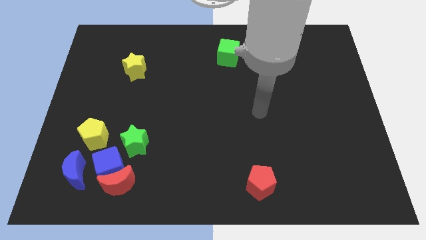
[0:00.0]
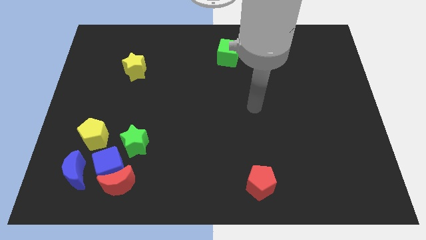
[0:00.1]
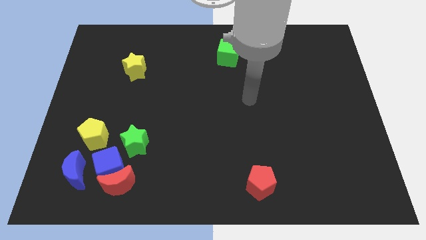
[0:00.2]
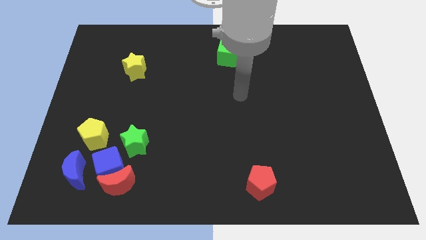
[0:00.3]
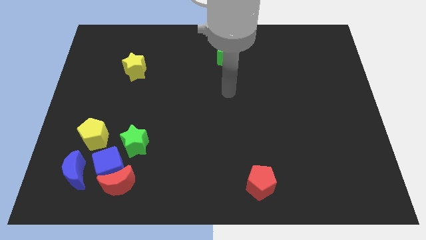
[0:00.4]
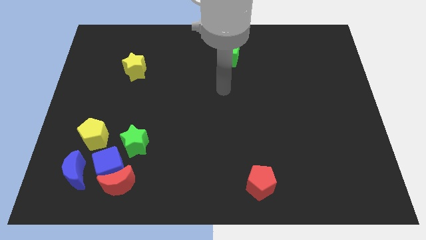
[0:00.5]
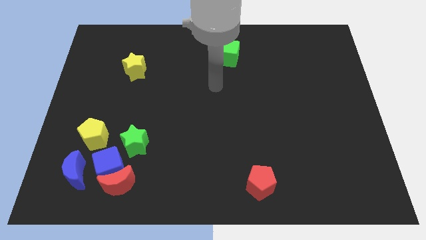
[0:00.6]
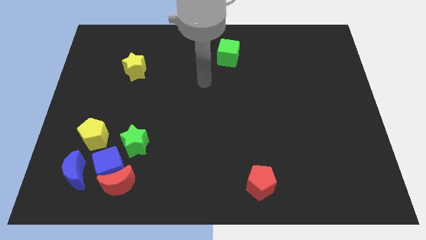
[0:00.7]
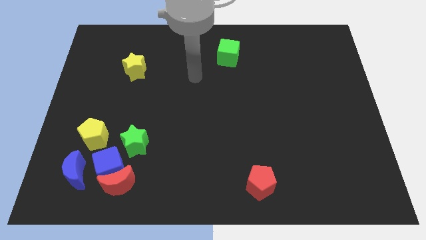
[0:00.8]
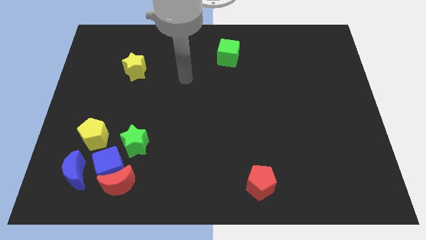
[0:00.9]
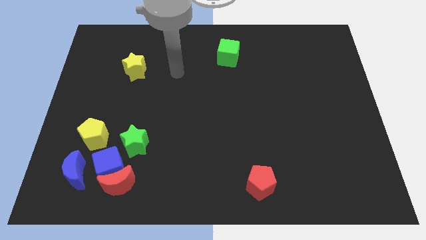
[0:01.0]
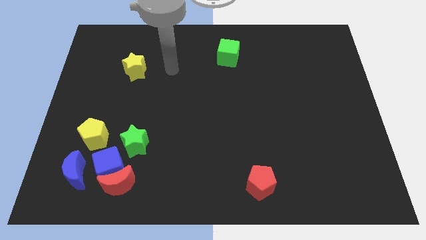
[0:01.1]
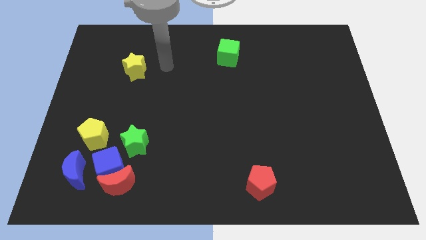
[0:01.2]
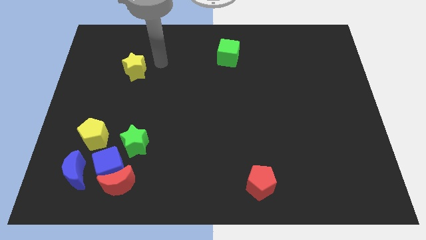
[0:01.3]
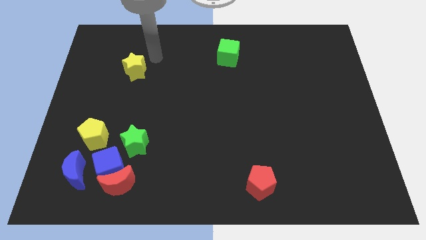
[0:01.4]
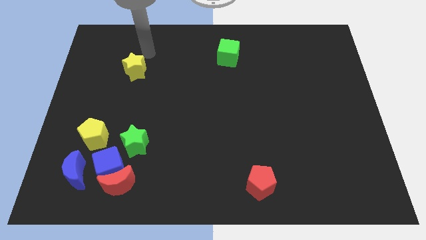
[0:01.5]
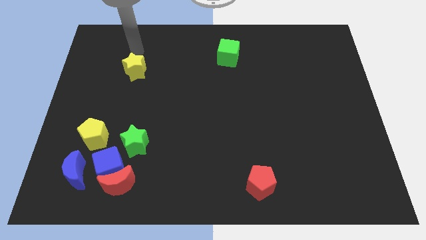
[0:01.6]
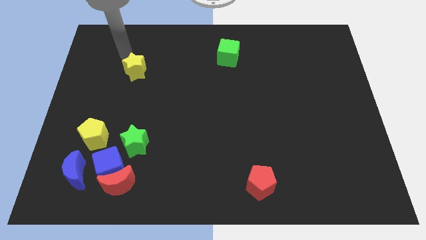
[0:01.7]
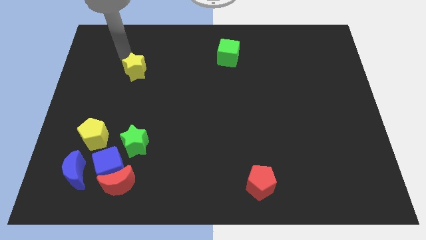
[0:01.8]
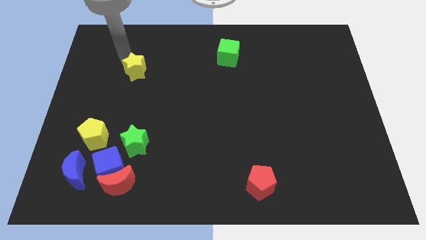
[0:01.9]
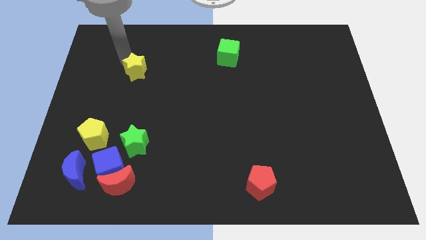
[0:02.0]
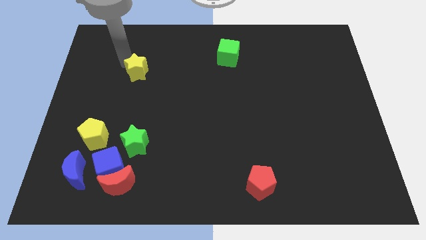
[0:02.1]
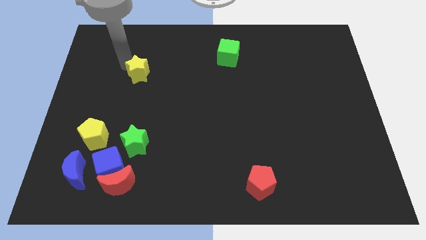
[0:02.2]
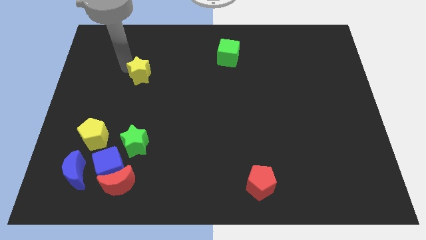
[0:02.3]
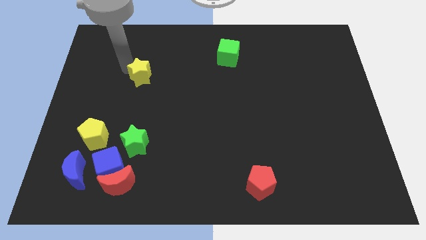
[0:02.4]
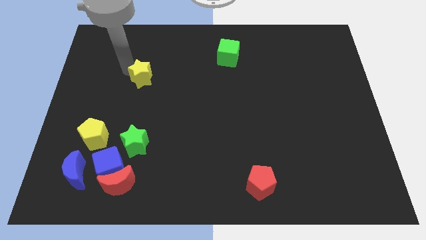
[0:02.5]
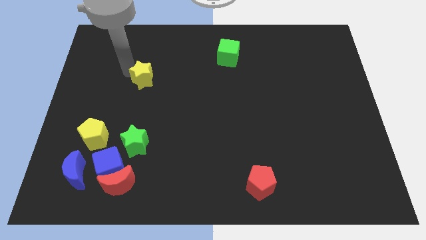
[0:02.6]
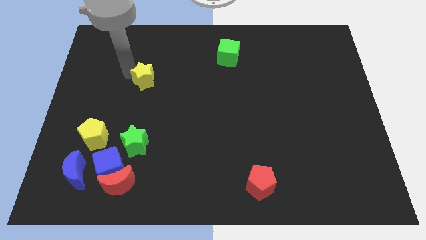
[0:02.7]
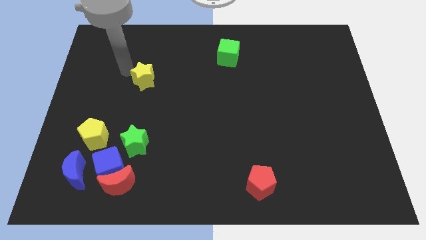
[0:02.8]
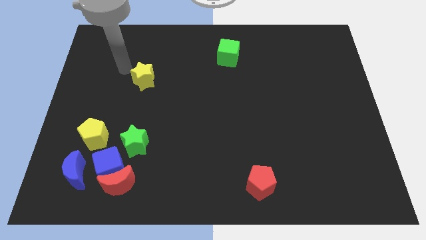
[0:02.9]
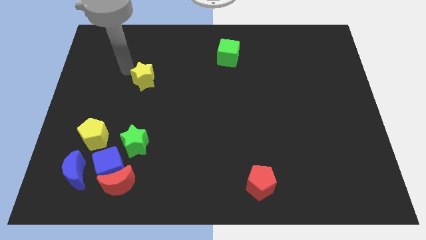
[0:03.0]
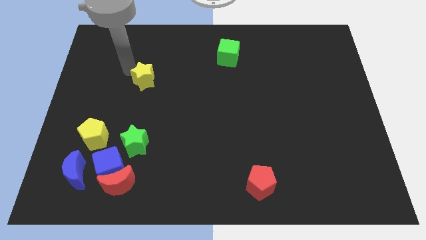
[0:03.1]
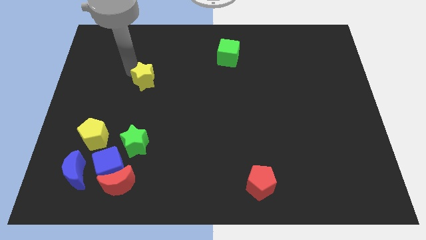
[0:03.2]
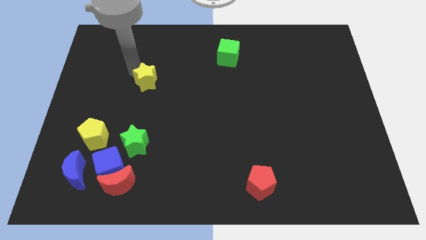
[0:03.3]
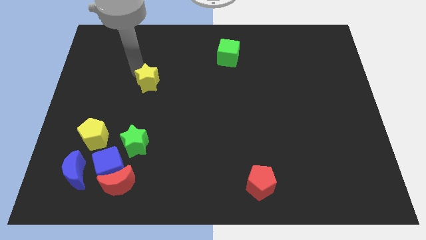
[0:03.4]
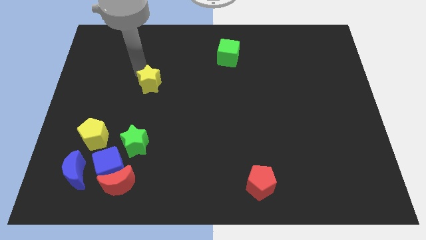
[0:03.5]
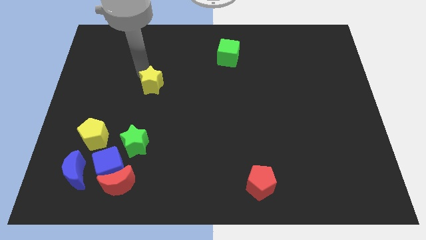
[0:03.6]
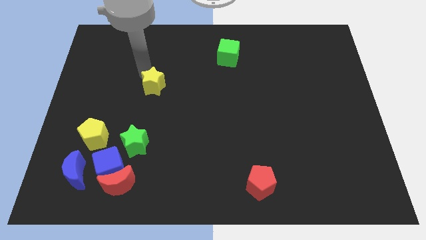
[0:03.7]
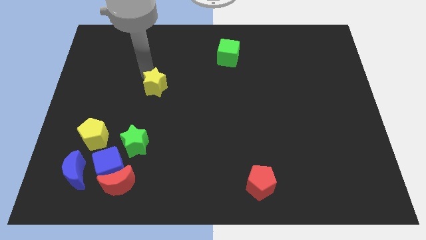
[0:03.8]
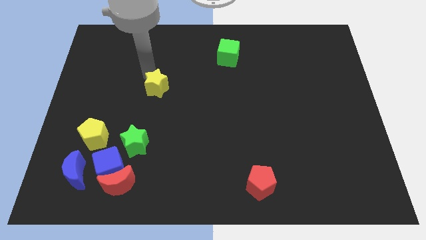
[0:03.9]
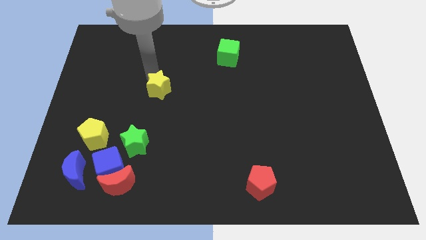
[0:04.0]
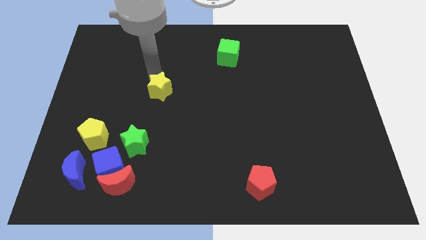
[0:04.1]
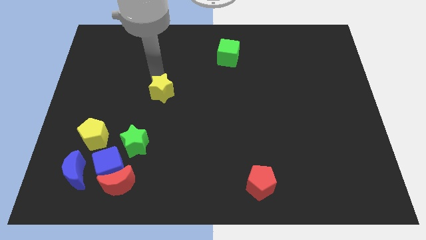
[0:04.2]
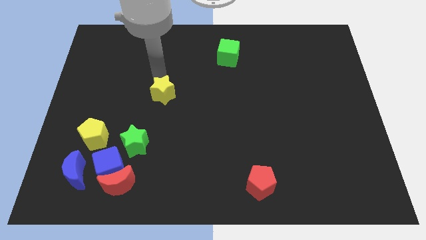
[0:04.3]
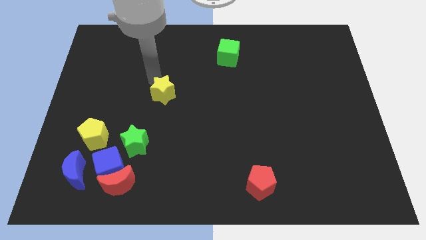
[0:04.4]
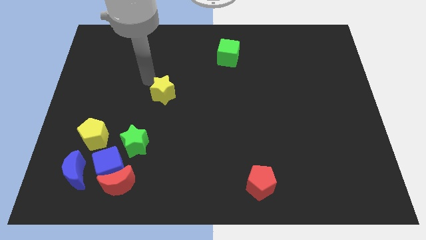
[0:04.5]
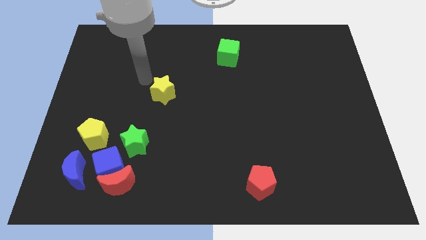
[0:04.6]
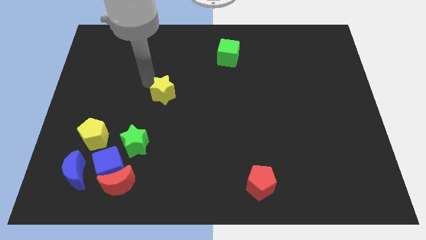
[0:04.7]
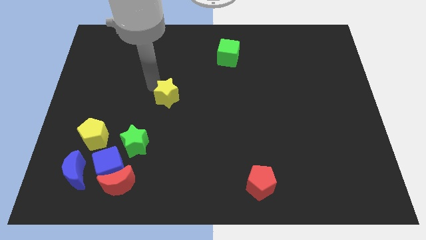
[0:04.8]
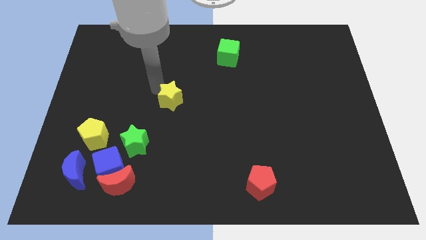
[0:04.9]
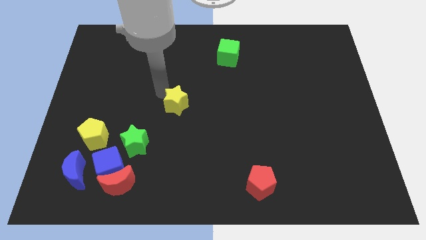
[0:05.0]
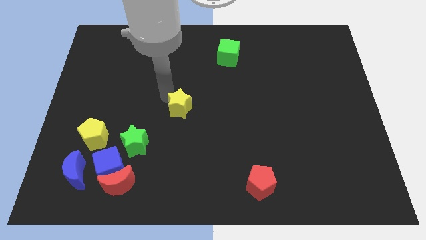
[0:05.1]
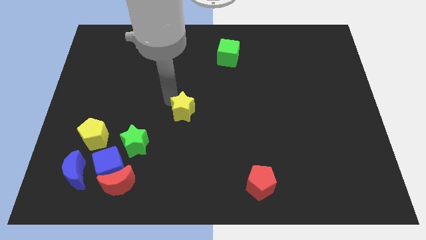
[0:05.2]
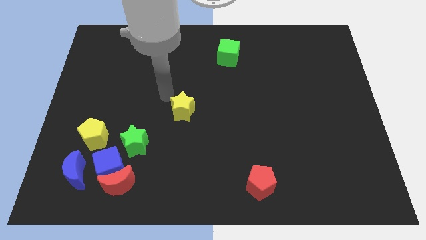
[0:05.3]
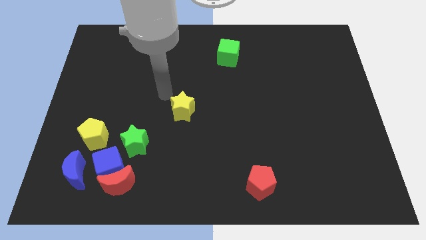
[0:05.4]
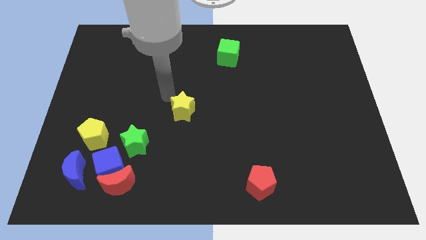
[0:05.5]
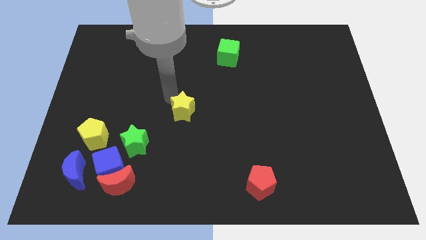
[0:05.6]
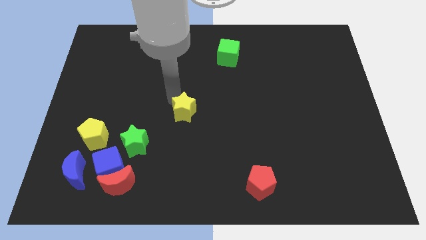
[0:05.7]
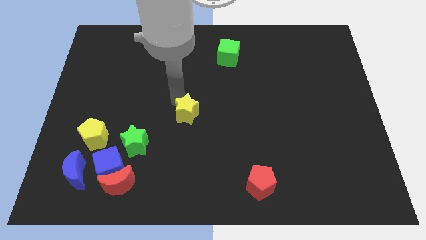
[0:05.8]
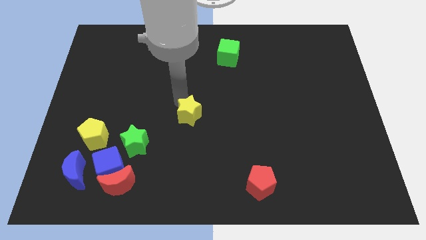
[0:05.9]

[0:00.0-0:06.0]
move the yellow star down and to the right diagonally

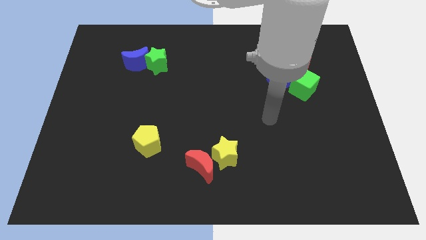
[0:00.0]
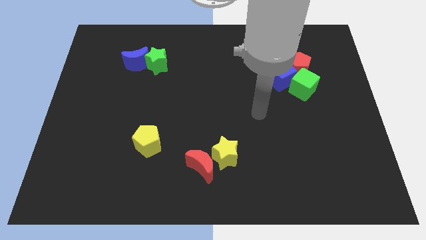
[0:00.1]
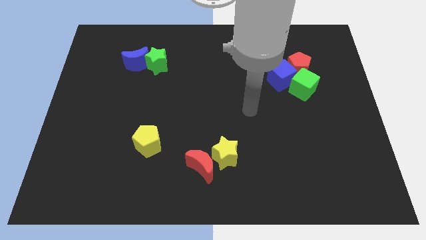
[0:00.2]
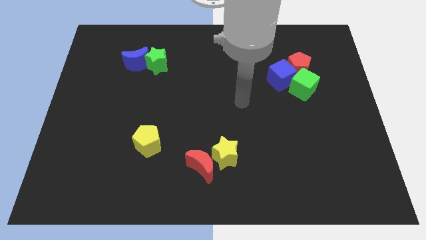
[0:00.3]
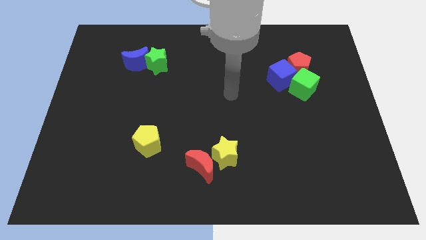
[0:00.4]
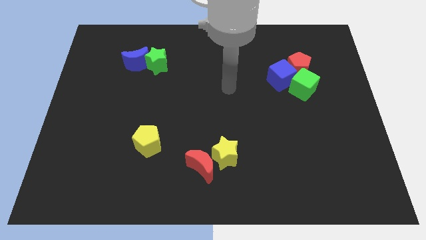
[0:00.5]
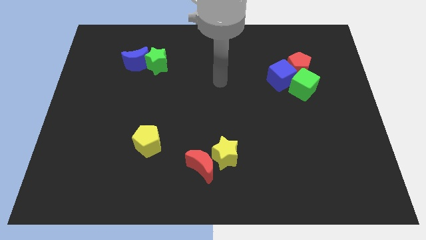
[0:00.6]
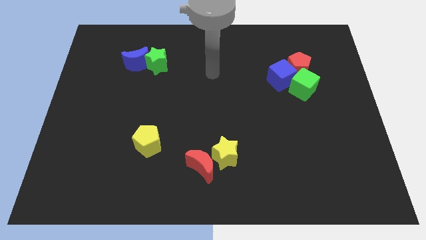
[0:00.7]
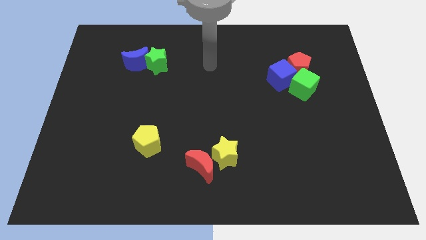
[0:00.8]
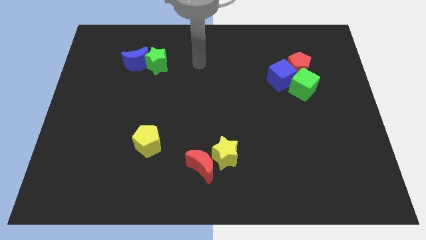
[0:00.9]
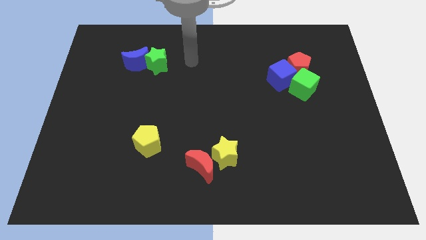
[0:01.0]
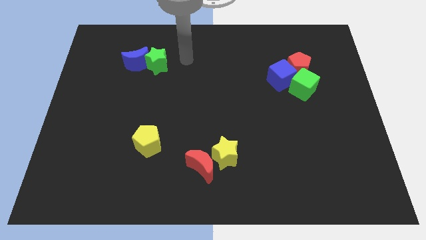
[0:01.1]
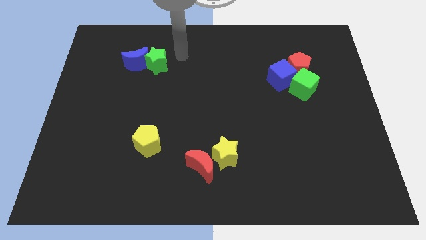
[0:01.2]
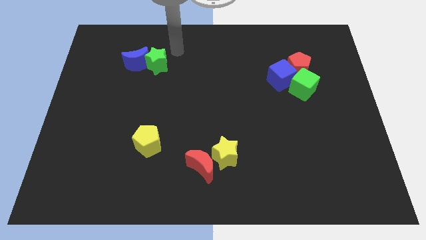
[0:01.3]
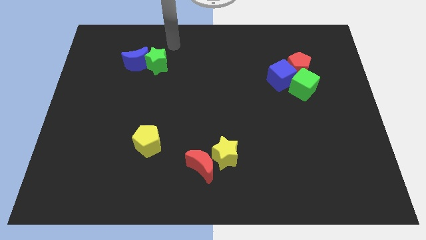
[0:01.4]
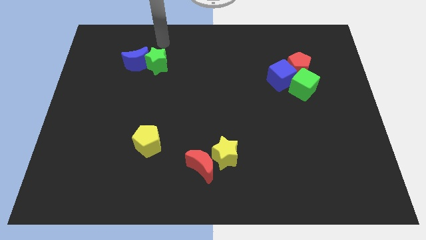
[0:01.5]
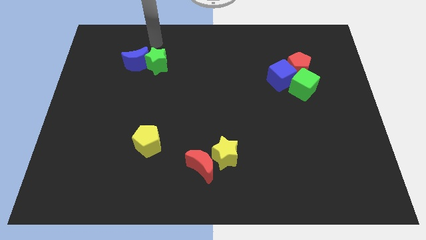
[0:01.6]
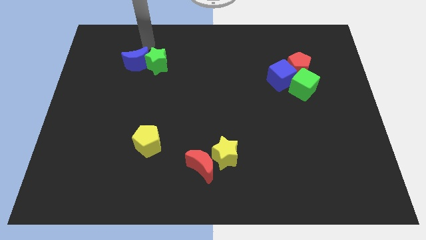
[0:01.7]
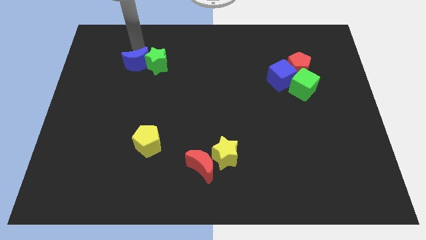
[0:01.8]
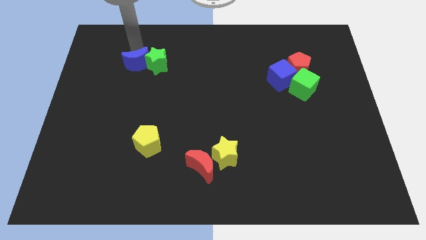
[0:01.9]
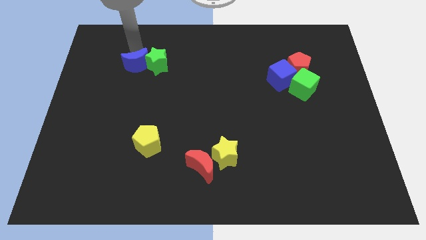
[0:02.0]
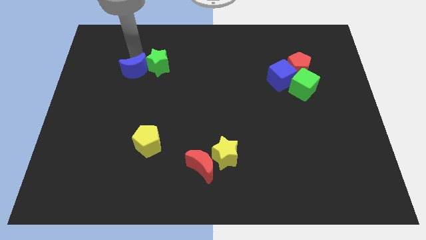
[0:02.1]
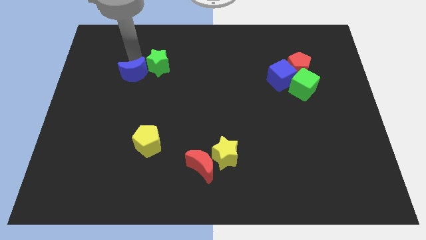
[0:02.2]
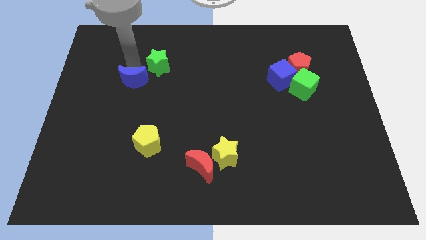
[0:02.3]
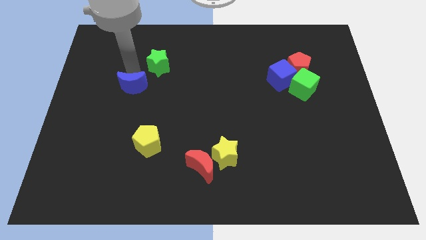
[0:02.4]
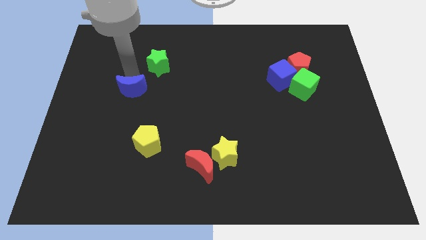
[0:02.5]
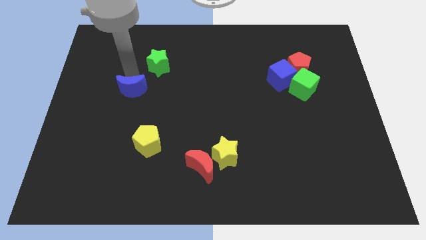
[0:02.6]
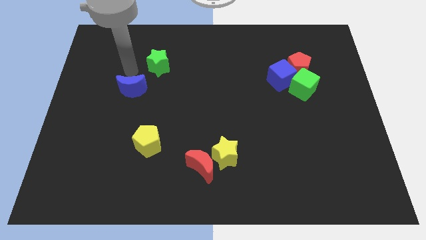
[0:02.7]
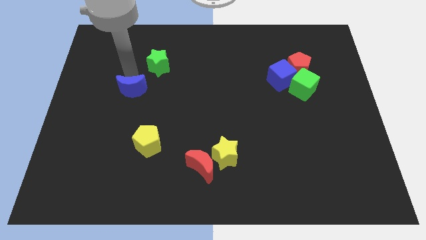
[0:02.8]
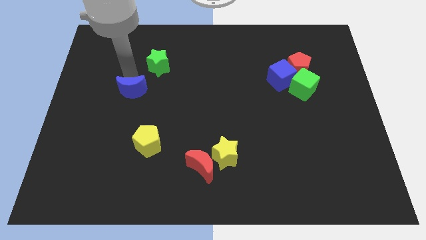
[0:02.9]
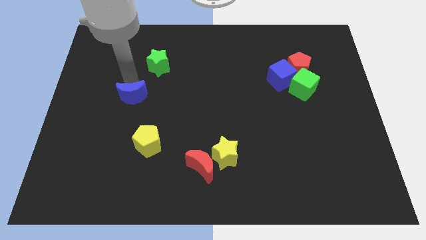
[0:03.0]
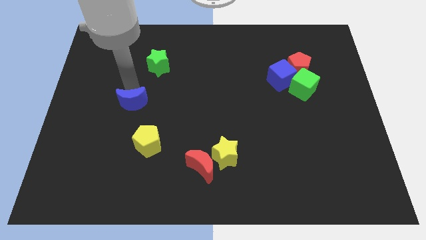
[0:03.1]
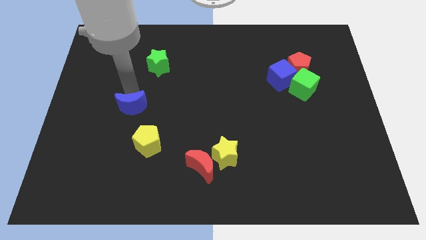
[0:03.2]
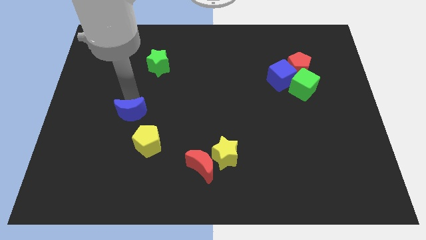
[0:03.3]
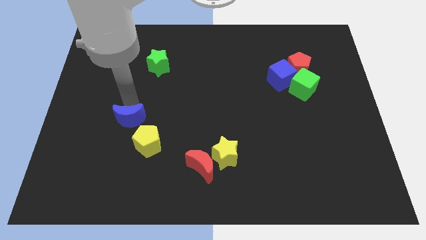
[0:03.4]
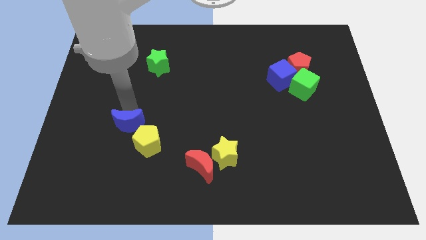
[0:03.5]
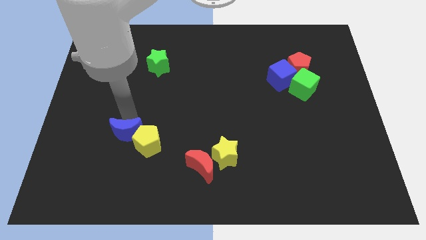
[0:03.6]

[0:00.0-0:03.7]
slide the blue moon down
